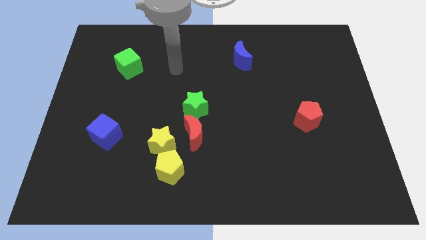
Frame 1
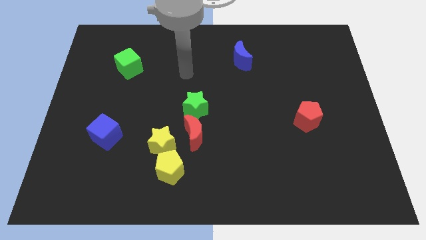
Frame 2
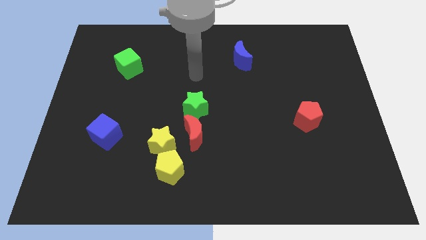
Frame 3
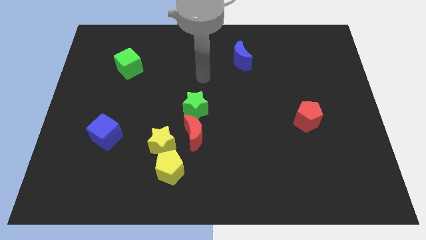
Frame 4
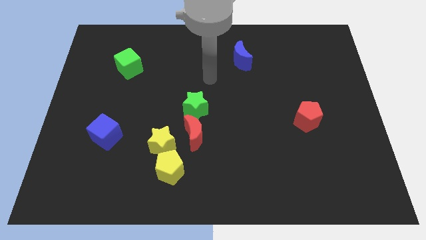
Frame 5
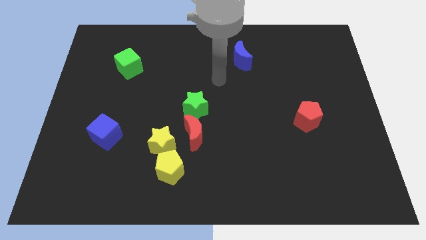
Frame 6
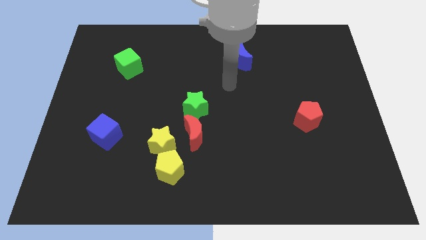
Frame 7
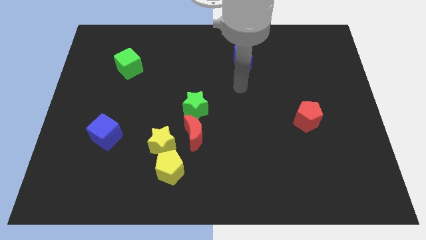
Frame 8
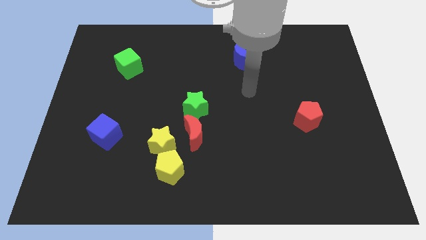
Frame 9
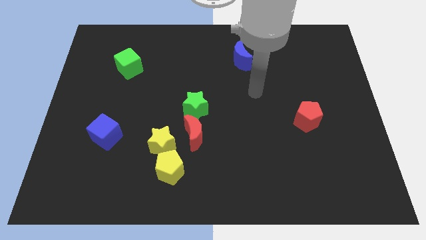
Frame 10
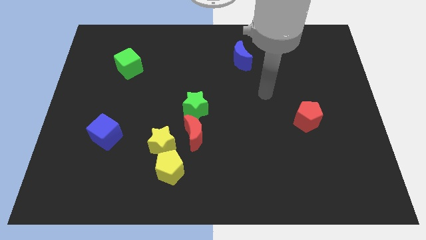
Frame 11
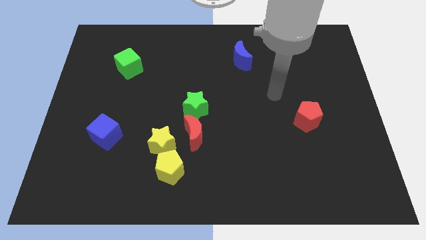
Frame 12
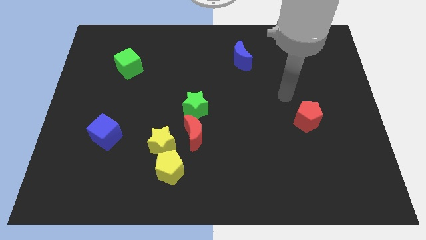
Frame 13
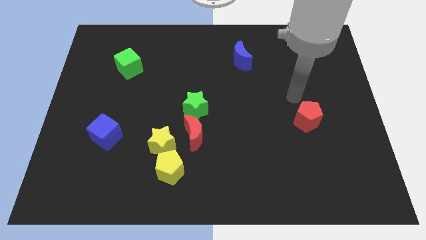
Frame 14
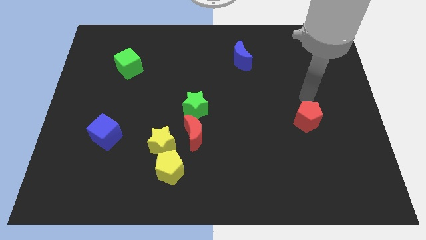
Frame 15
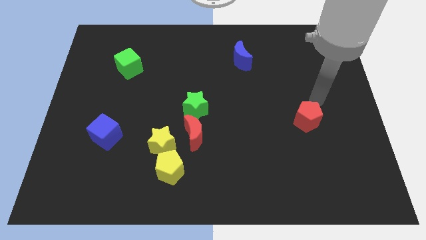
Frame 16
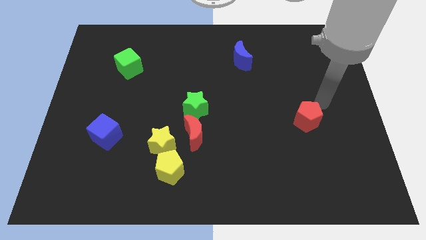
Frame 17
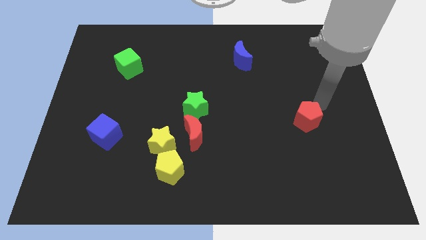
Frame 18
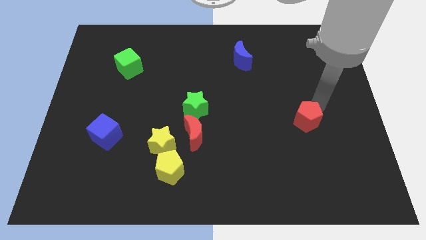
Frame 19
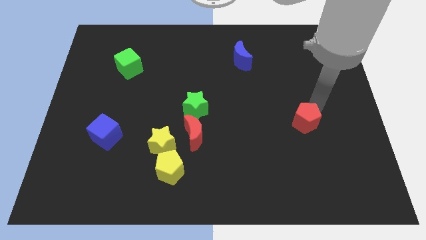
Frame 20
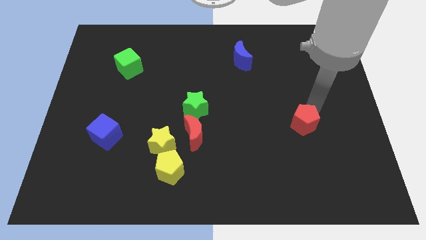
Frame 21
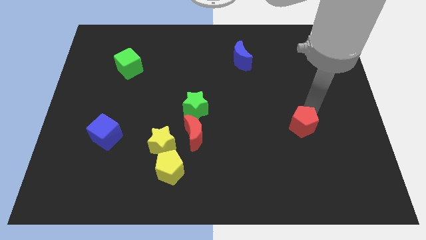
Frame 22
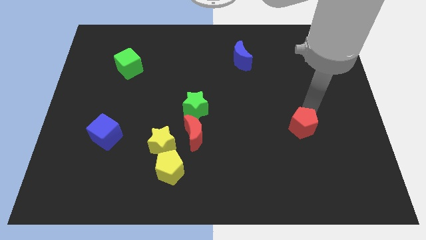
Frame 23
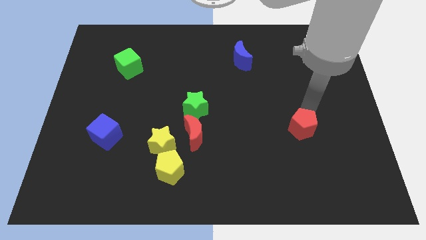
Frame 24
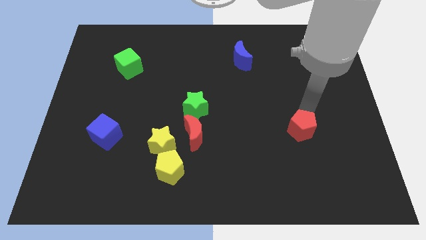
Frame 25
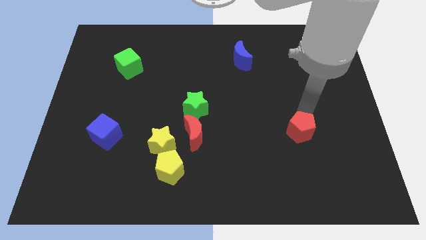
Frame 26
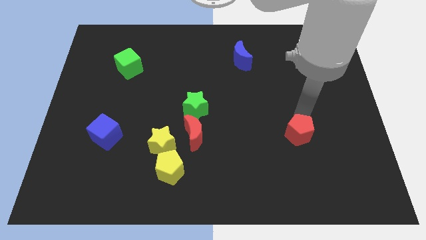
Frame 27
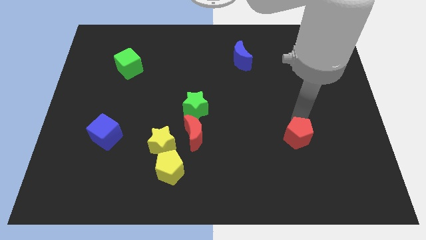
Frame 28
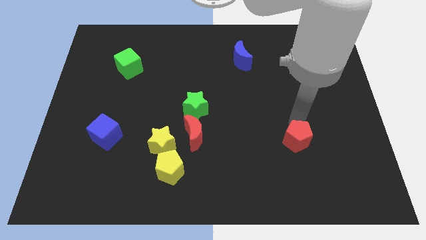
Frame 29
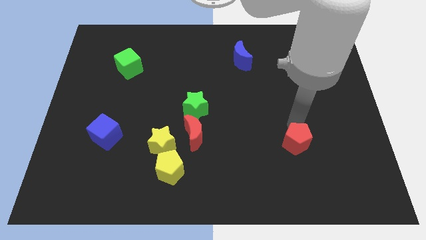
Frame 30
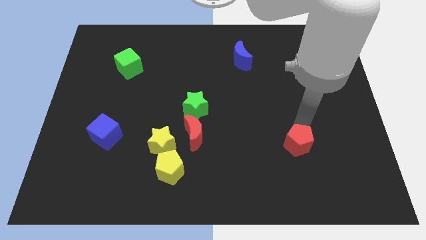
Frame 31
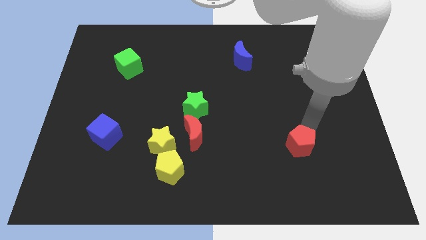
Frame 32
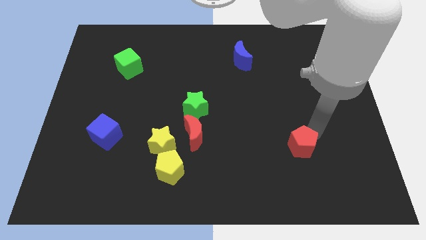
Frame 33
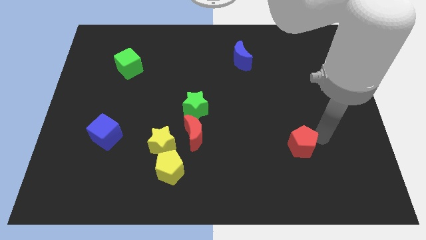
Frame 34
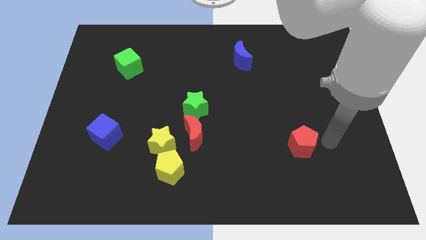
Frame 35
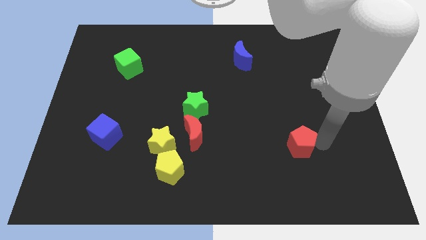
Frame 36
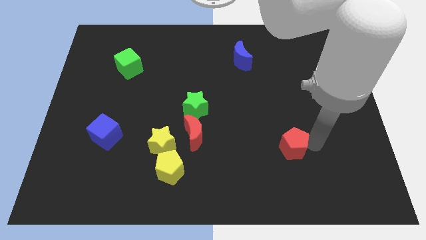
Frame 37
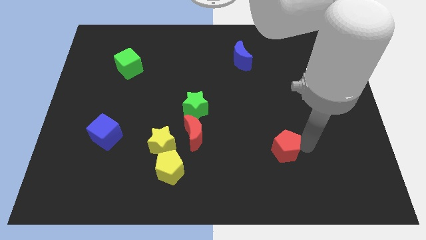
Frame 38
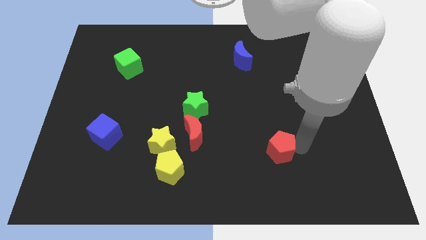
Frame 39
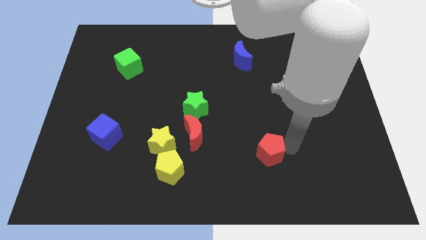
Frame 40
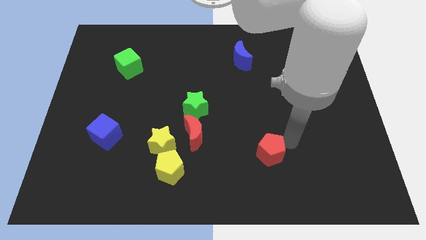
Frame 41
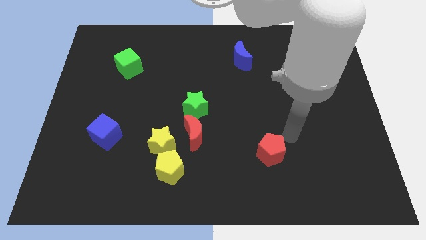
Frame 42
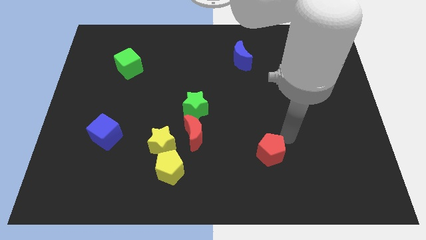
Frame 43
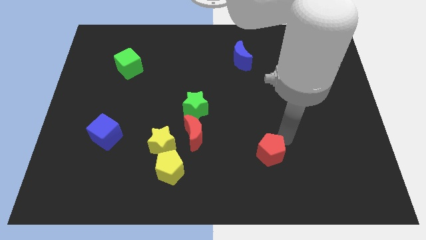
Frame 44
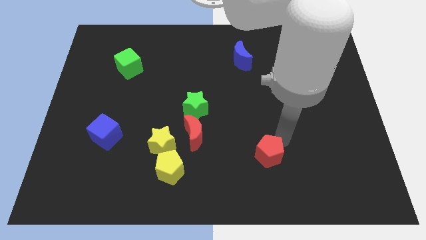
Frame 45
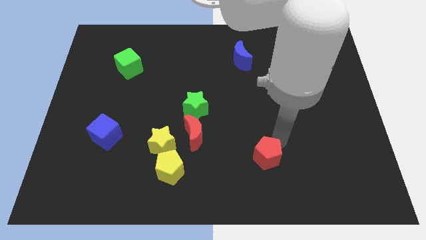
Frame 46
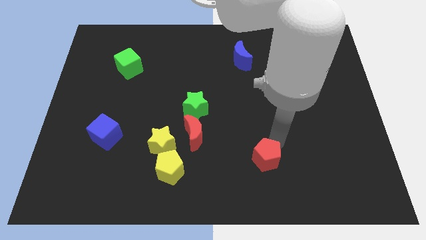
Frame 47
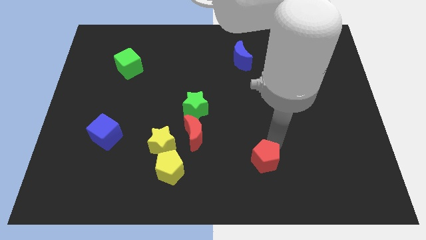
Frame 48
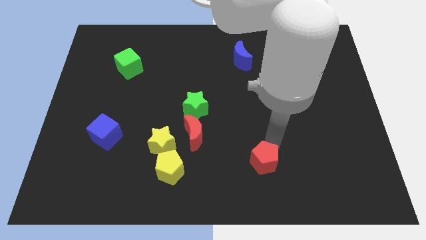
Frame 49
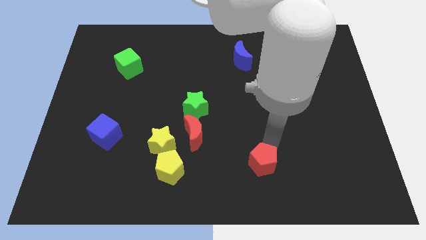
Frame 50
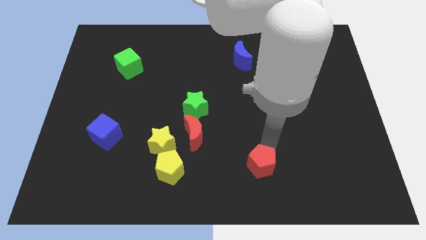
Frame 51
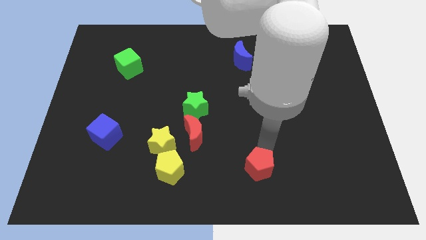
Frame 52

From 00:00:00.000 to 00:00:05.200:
put the red pentagon to the bottom

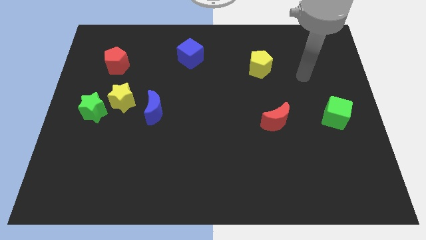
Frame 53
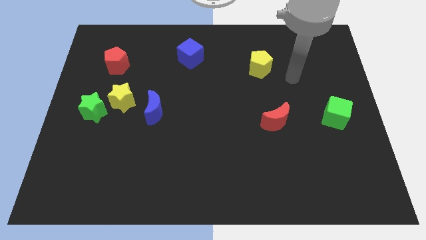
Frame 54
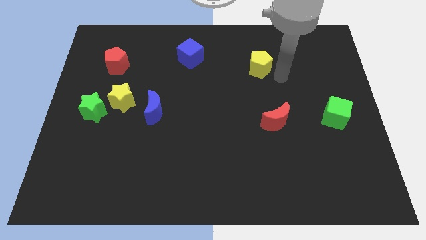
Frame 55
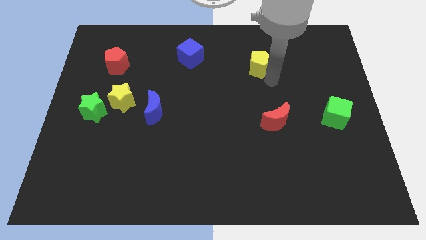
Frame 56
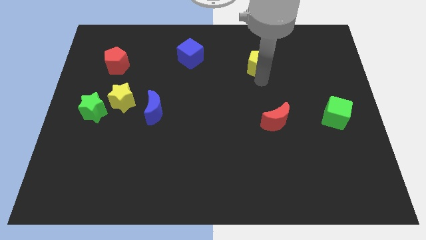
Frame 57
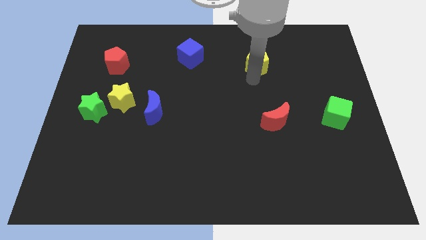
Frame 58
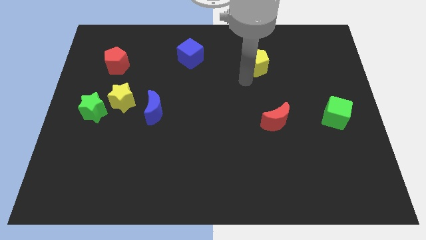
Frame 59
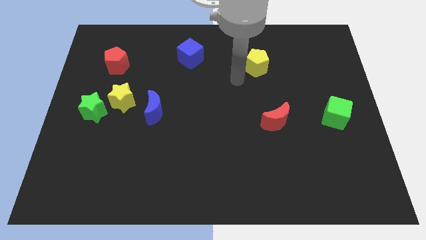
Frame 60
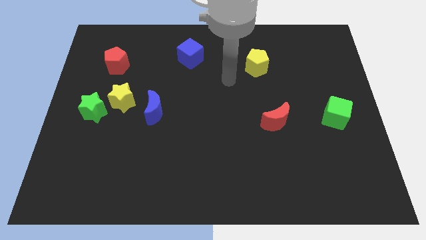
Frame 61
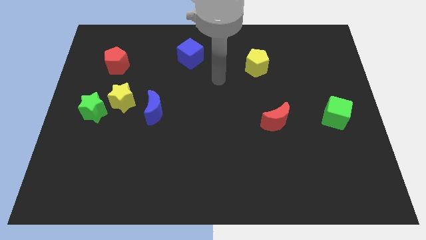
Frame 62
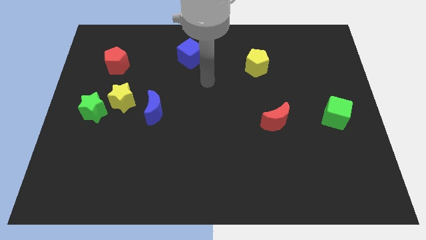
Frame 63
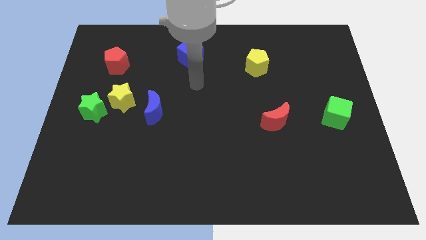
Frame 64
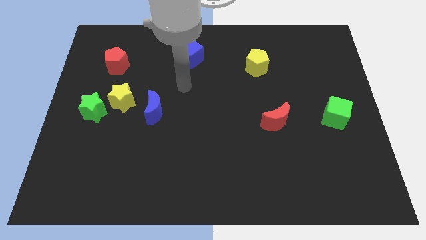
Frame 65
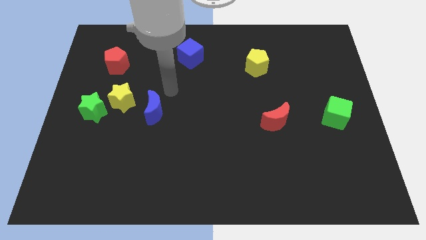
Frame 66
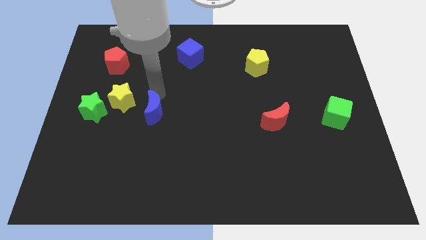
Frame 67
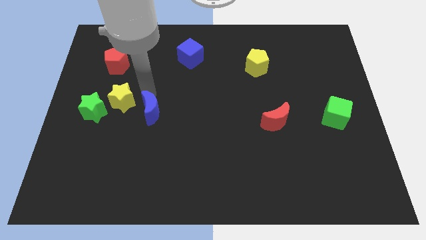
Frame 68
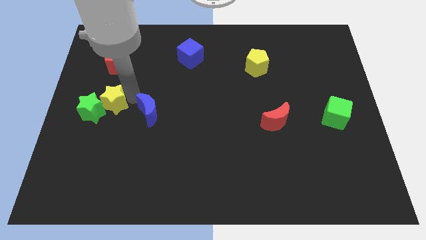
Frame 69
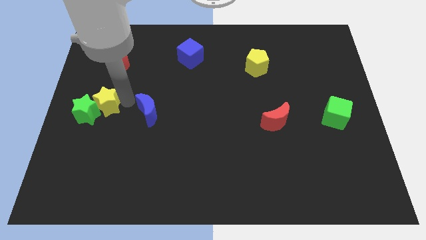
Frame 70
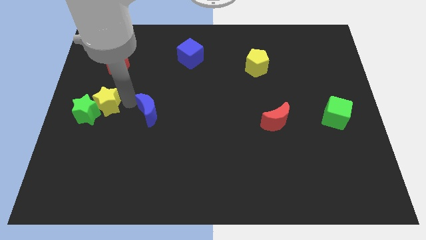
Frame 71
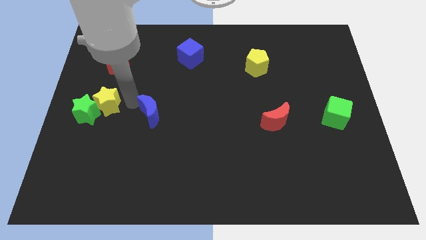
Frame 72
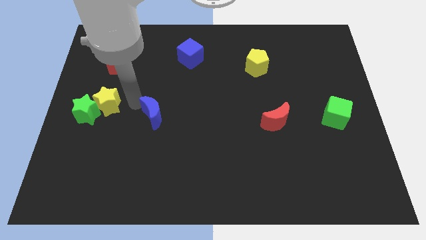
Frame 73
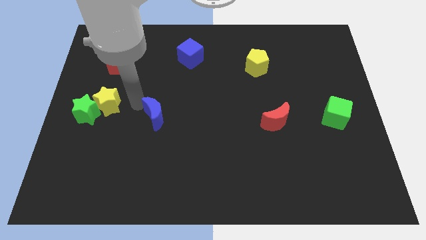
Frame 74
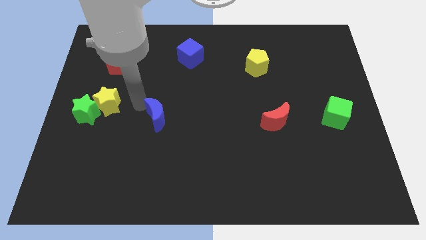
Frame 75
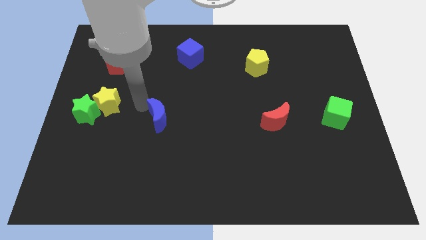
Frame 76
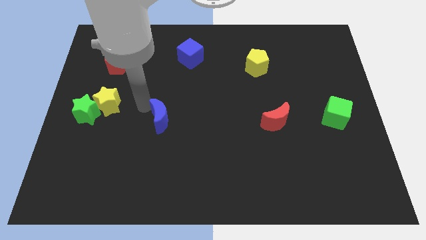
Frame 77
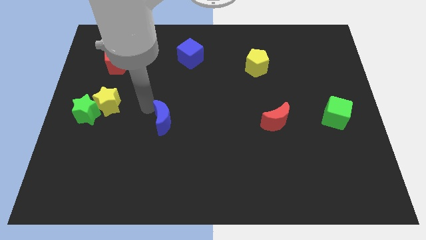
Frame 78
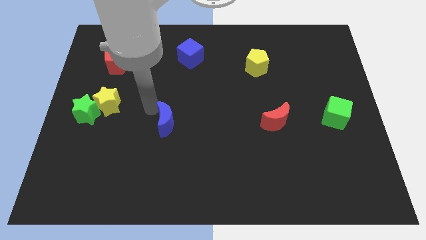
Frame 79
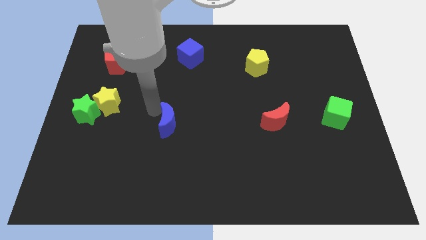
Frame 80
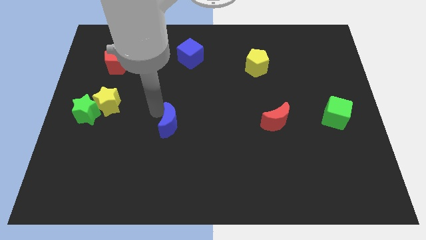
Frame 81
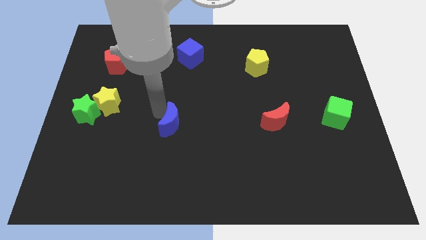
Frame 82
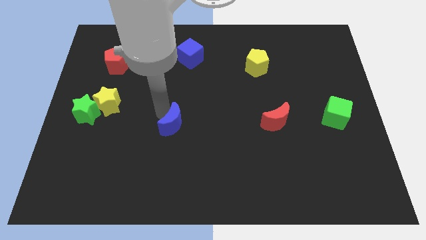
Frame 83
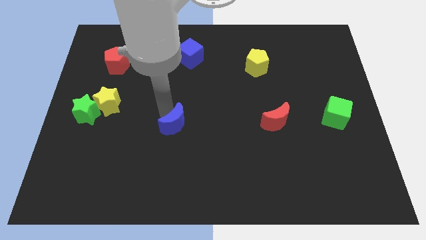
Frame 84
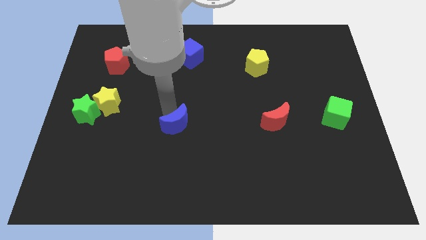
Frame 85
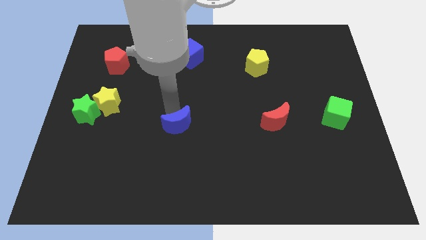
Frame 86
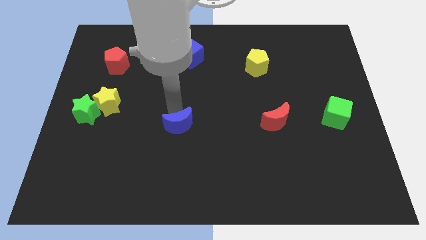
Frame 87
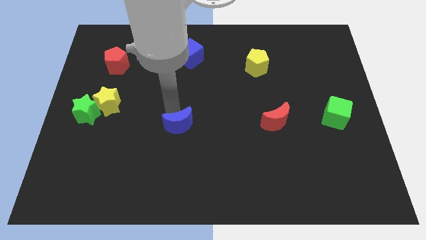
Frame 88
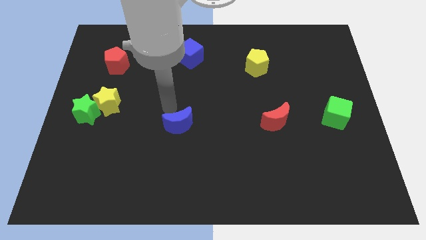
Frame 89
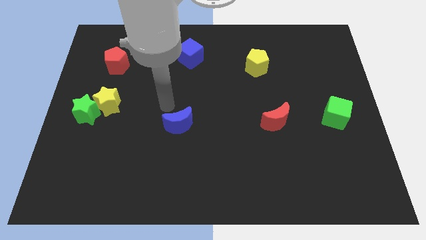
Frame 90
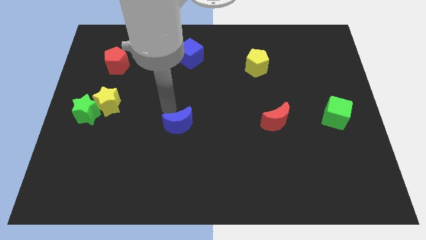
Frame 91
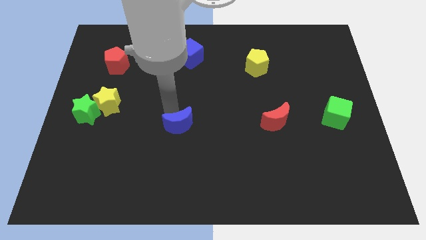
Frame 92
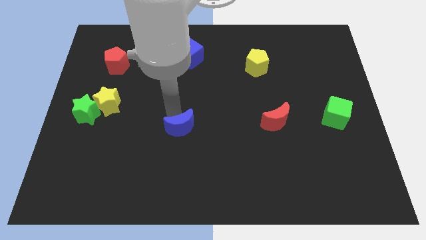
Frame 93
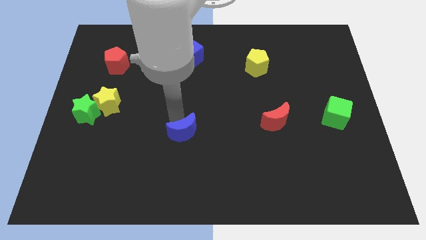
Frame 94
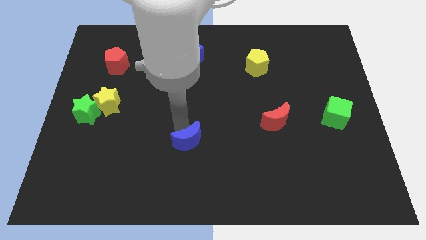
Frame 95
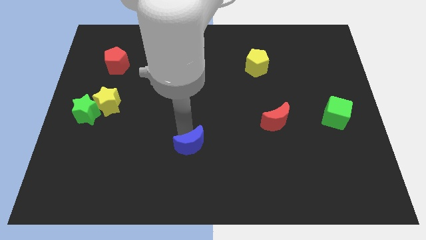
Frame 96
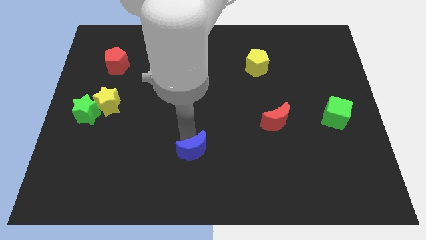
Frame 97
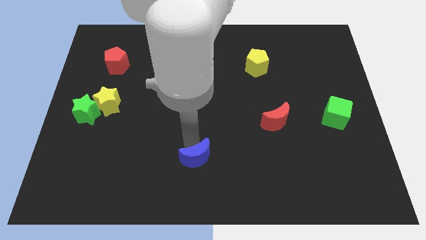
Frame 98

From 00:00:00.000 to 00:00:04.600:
move the blue moon to the bottom side
